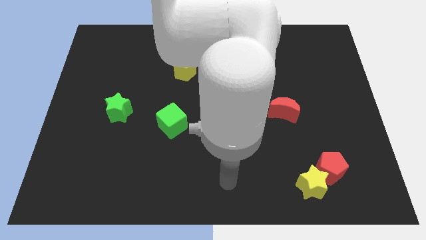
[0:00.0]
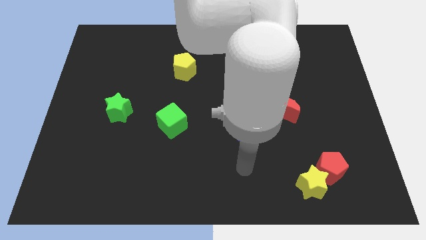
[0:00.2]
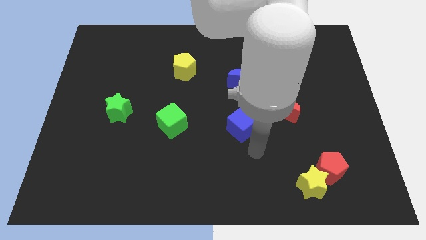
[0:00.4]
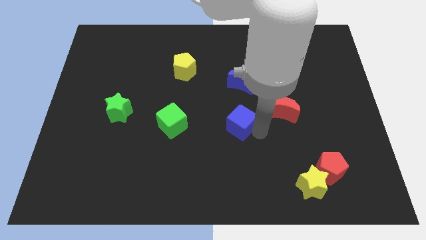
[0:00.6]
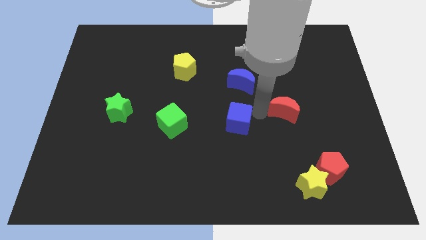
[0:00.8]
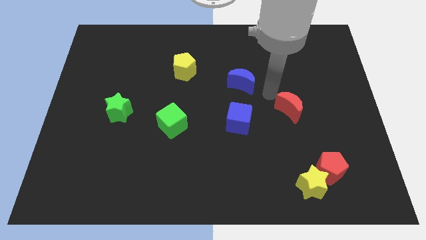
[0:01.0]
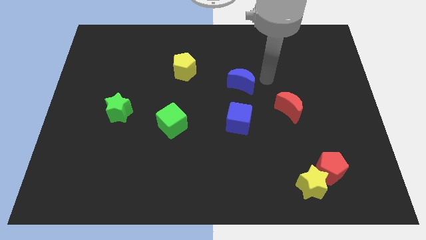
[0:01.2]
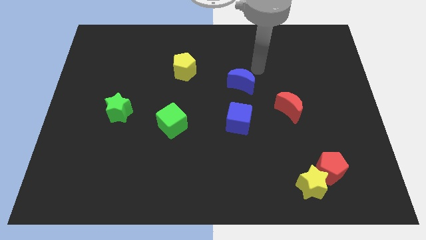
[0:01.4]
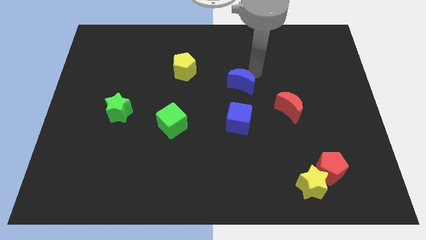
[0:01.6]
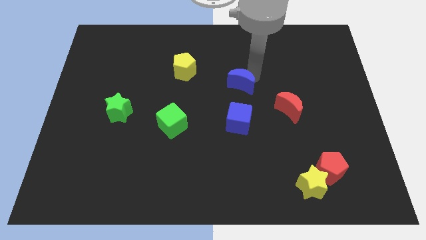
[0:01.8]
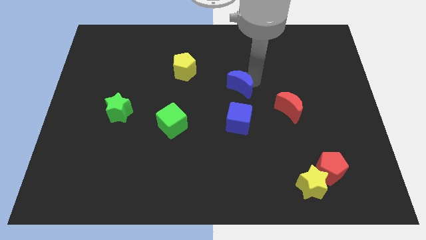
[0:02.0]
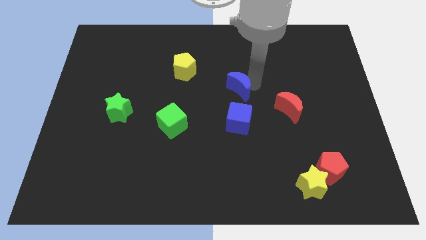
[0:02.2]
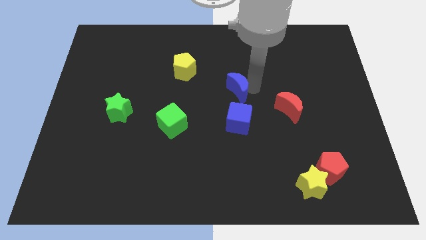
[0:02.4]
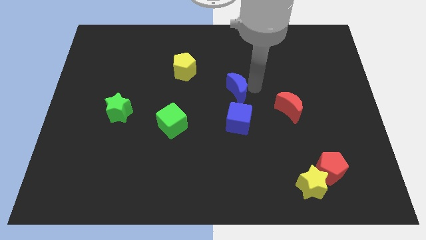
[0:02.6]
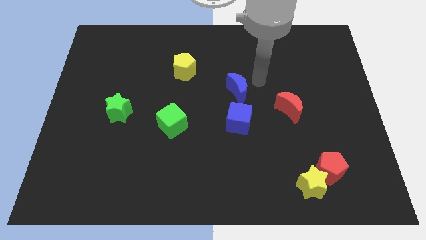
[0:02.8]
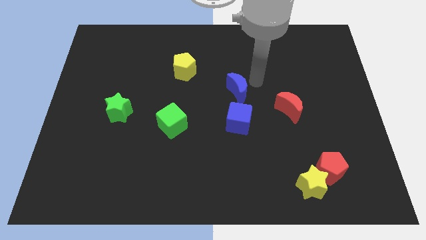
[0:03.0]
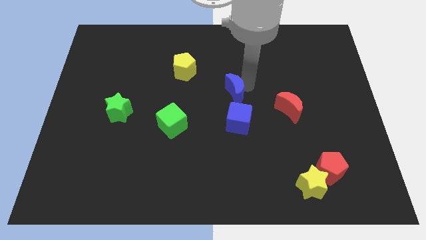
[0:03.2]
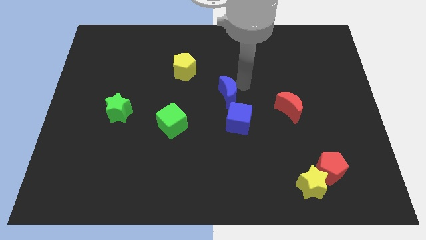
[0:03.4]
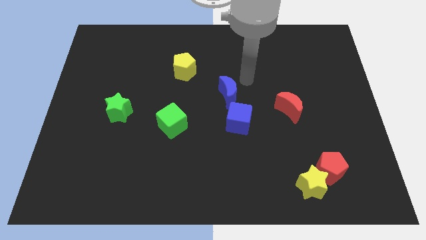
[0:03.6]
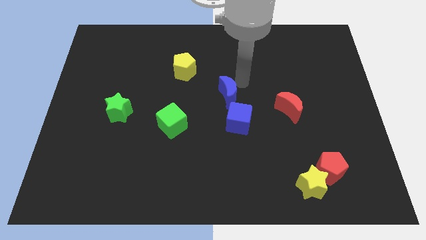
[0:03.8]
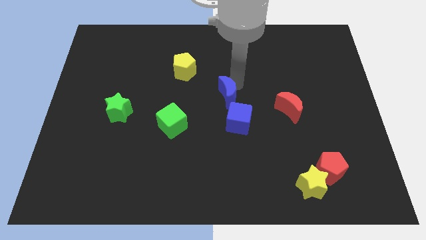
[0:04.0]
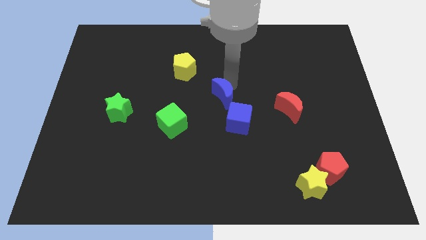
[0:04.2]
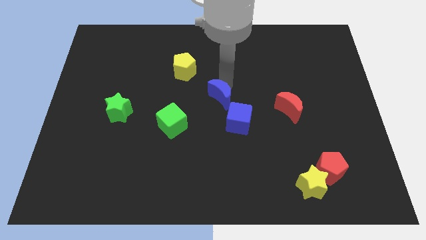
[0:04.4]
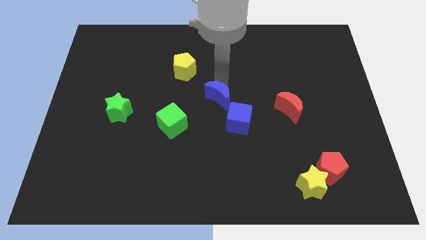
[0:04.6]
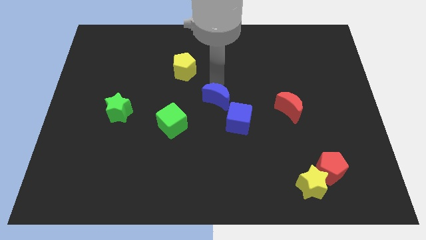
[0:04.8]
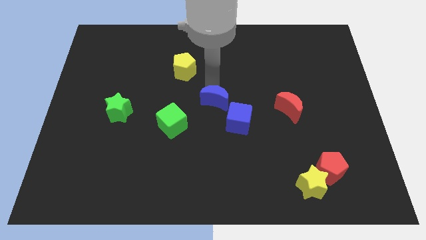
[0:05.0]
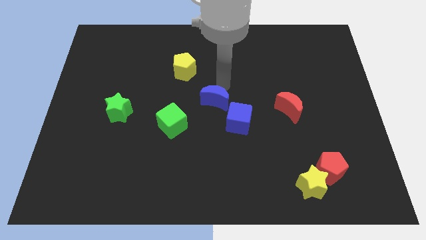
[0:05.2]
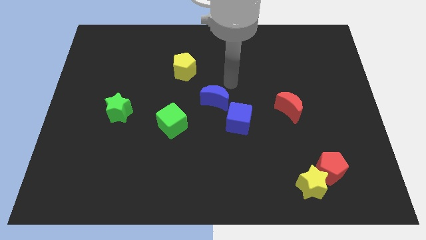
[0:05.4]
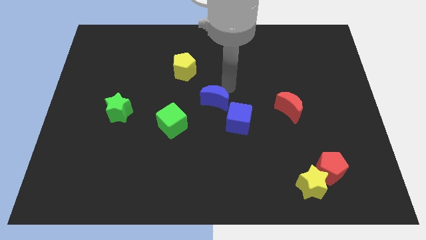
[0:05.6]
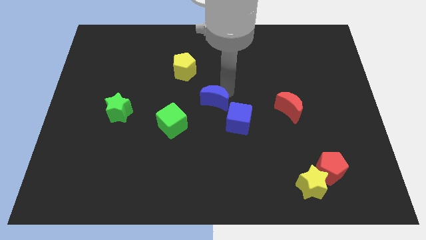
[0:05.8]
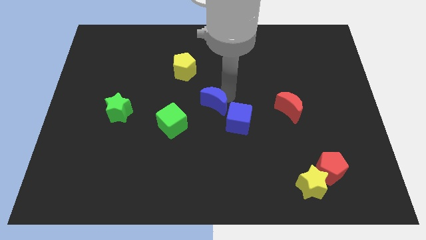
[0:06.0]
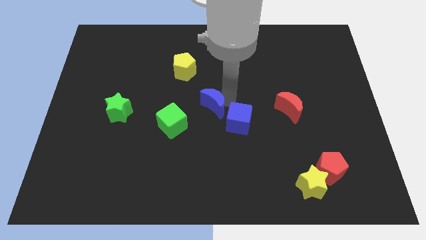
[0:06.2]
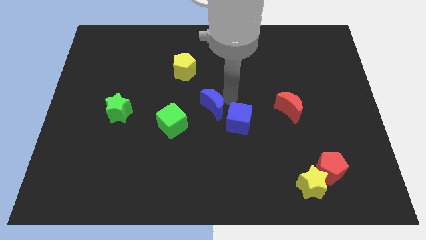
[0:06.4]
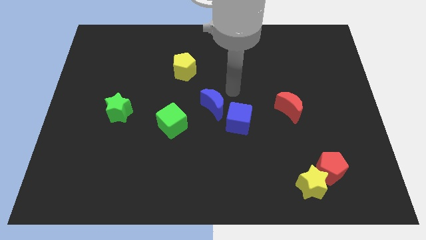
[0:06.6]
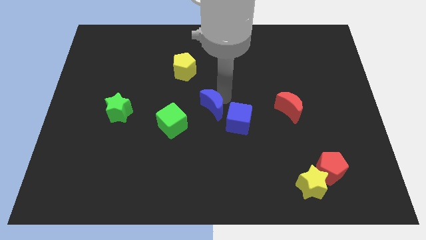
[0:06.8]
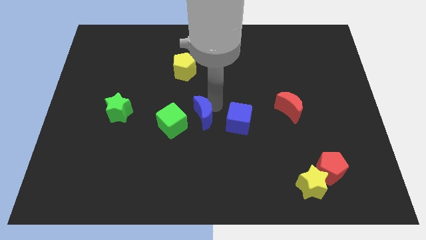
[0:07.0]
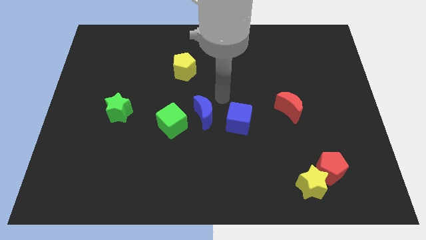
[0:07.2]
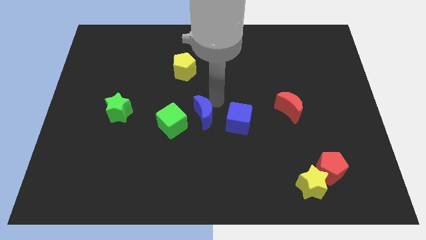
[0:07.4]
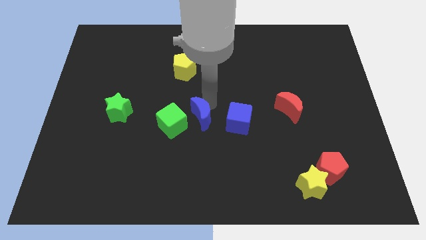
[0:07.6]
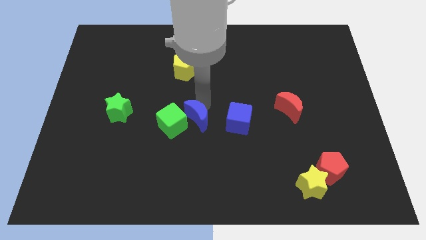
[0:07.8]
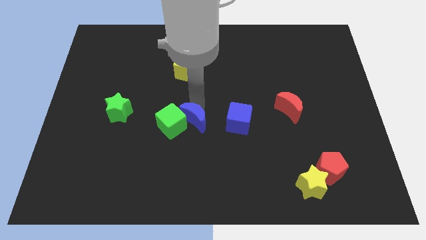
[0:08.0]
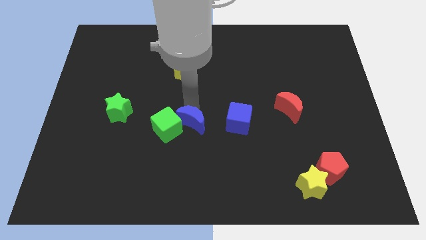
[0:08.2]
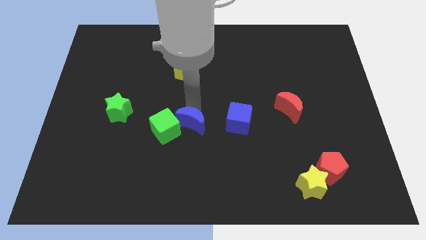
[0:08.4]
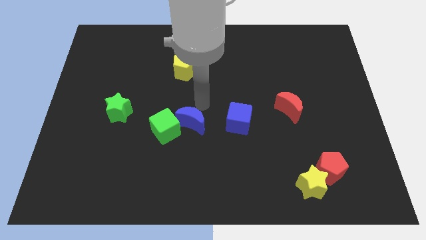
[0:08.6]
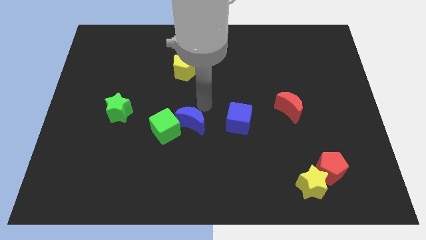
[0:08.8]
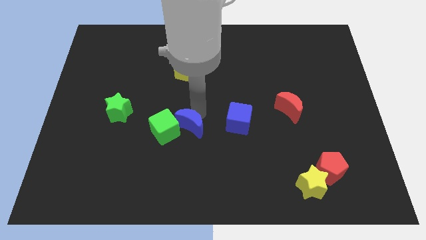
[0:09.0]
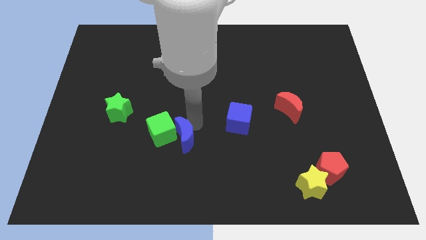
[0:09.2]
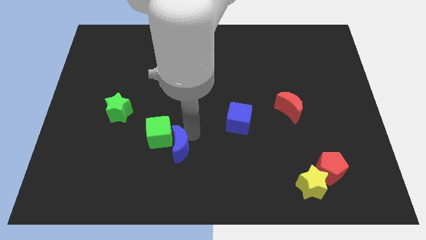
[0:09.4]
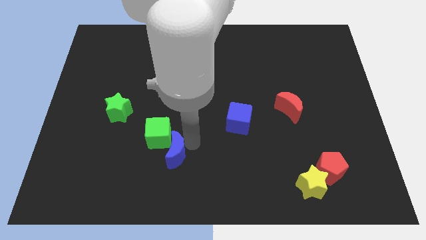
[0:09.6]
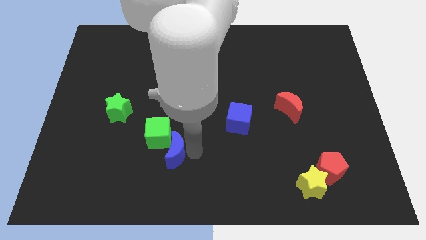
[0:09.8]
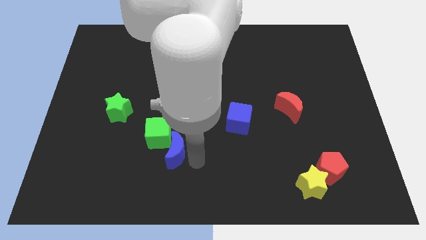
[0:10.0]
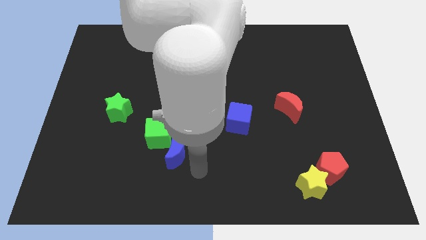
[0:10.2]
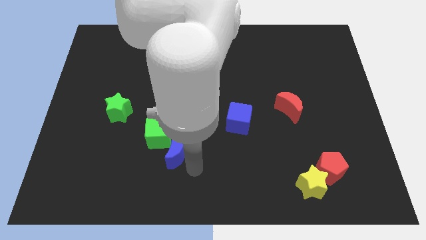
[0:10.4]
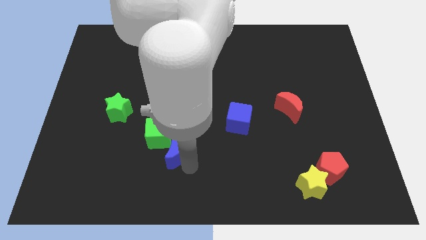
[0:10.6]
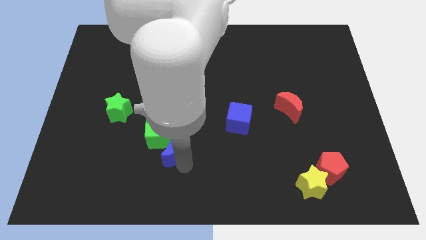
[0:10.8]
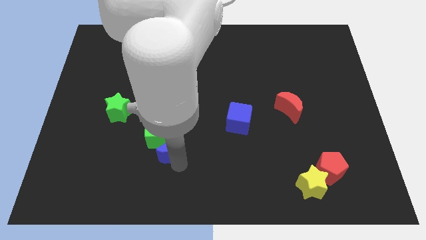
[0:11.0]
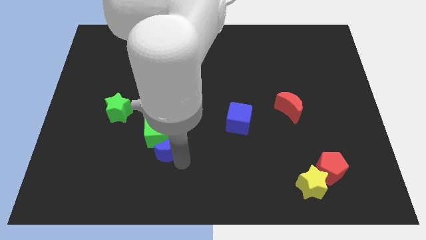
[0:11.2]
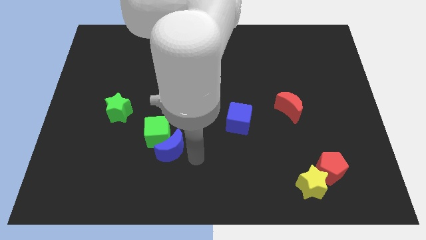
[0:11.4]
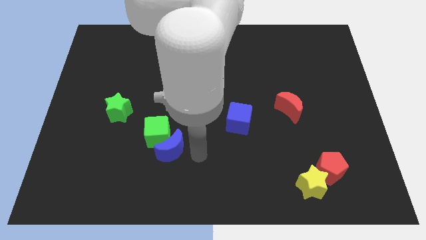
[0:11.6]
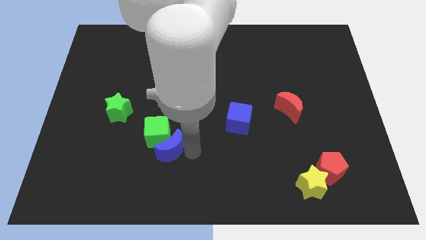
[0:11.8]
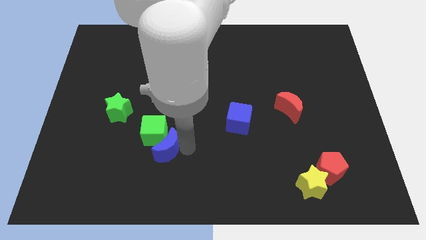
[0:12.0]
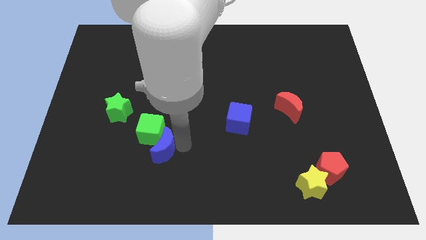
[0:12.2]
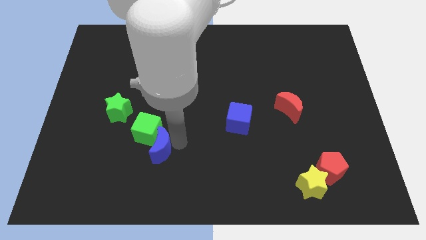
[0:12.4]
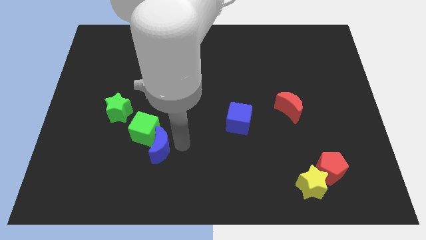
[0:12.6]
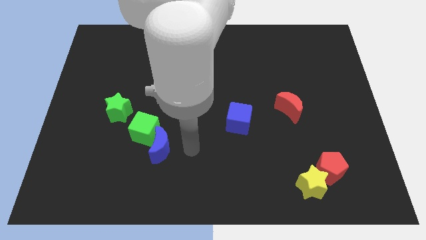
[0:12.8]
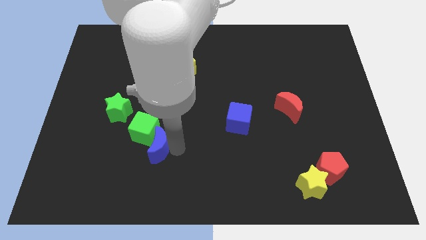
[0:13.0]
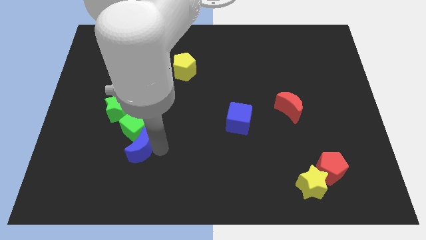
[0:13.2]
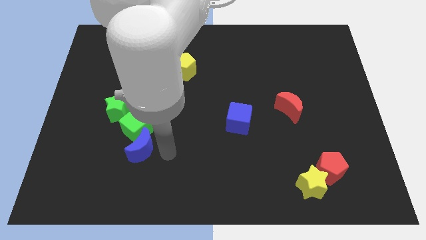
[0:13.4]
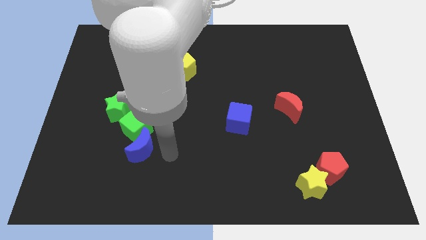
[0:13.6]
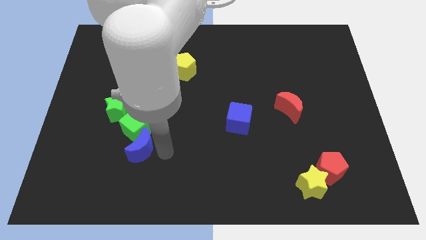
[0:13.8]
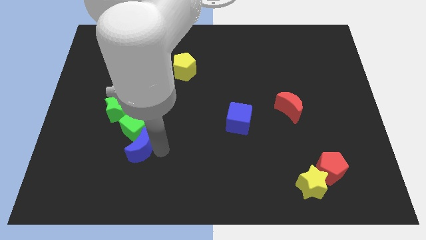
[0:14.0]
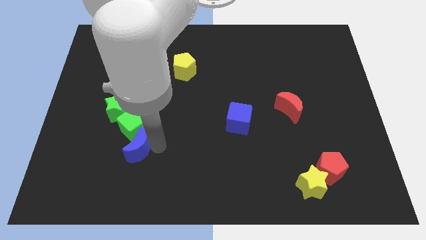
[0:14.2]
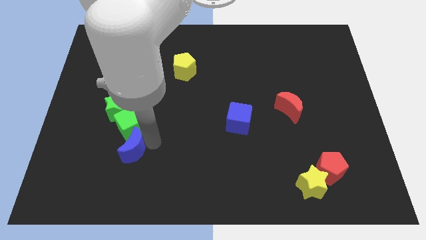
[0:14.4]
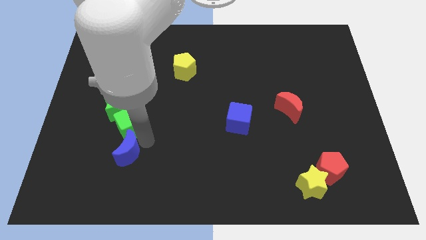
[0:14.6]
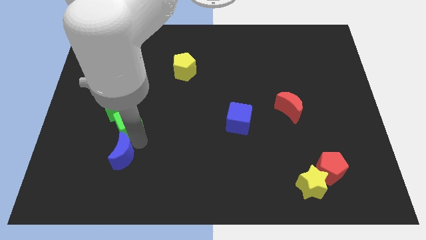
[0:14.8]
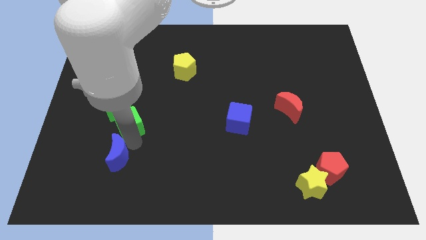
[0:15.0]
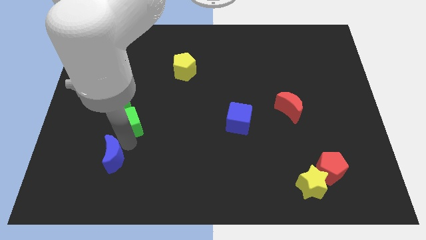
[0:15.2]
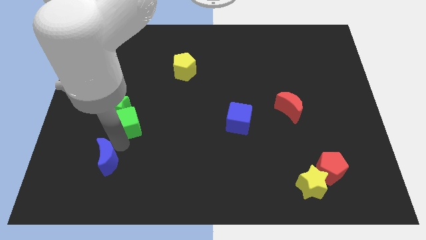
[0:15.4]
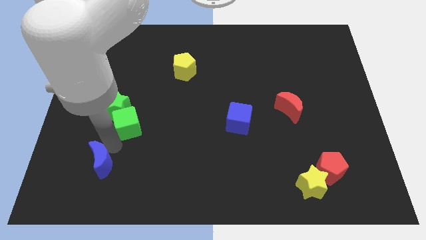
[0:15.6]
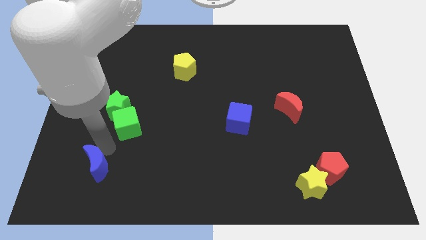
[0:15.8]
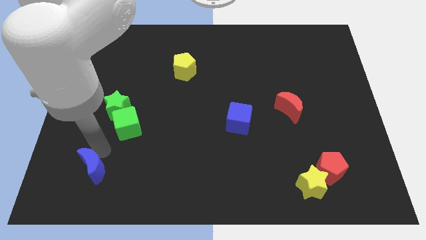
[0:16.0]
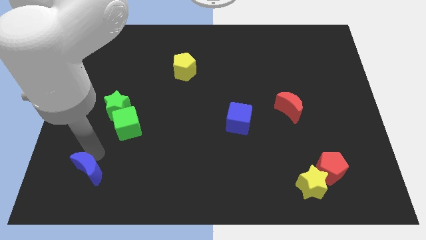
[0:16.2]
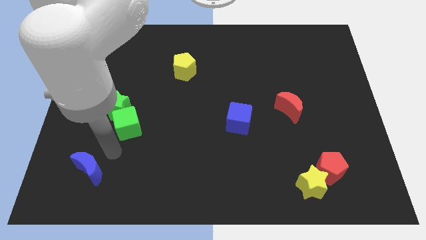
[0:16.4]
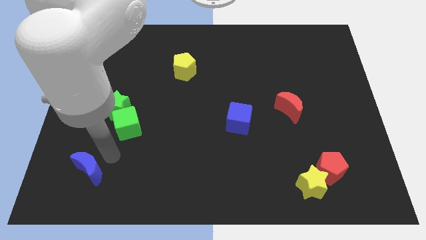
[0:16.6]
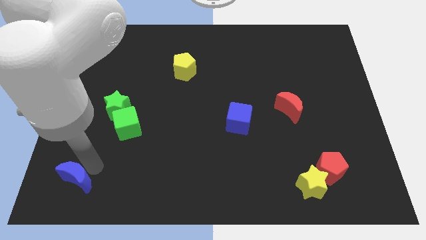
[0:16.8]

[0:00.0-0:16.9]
put the blue moon to the bottom left of the board
